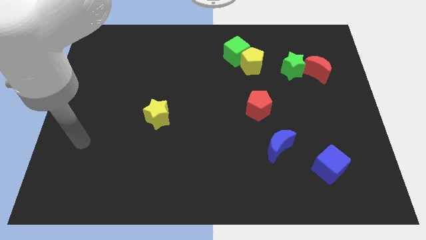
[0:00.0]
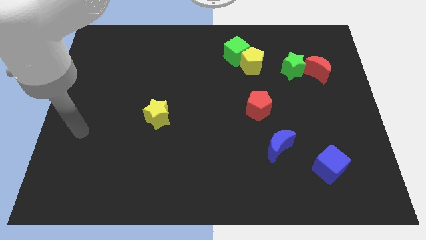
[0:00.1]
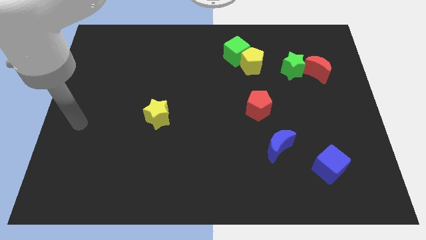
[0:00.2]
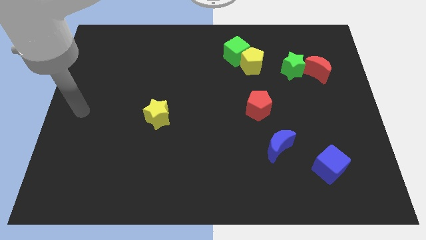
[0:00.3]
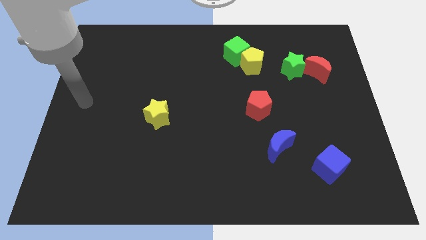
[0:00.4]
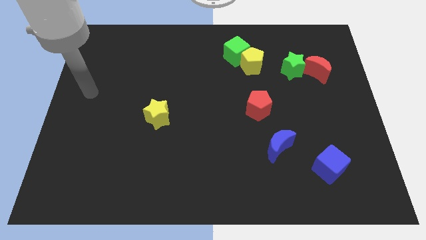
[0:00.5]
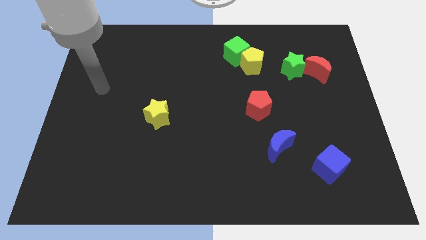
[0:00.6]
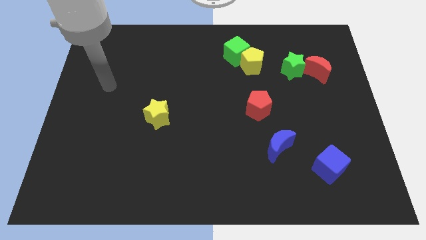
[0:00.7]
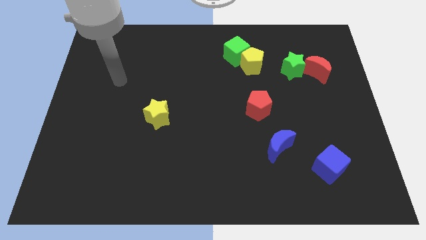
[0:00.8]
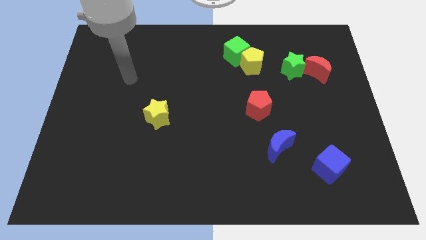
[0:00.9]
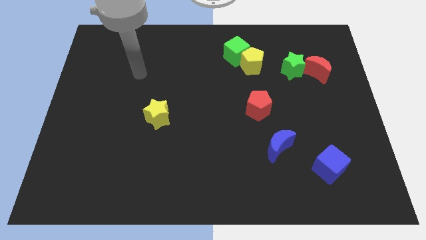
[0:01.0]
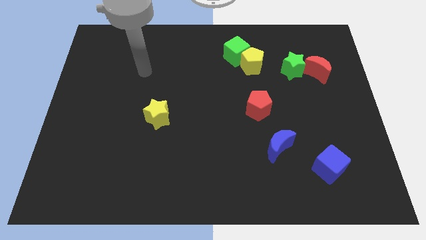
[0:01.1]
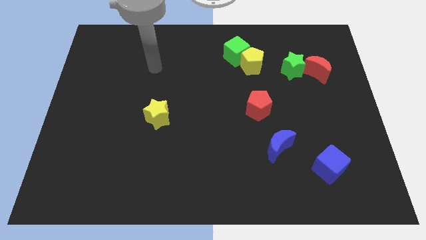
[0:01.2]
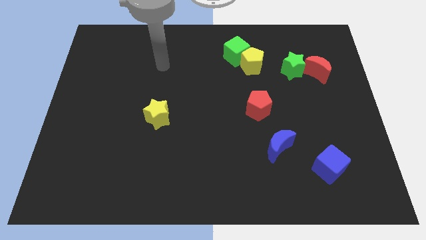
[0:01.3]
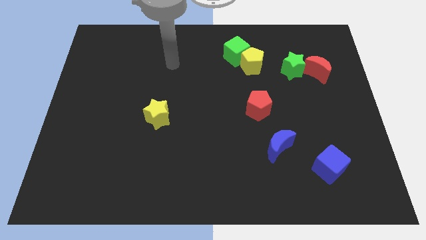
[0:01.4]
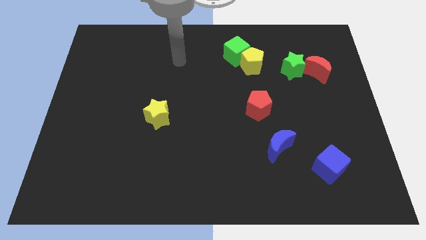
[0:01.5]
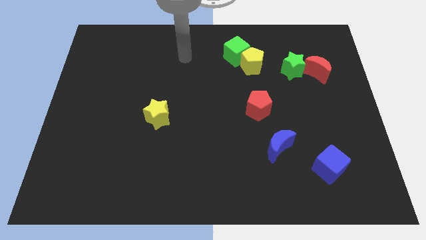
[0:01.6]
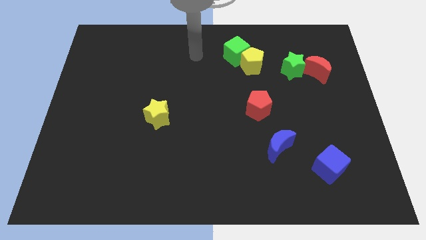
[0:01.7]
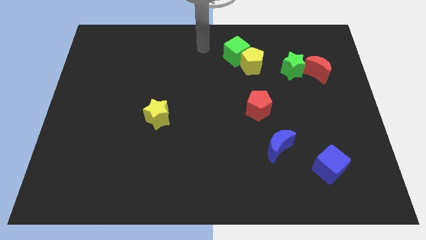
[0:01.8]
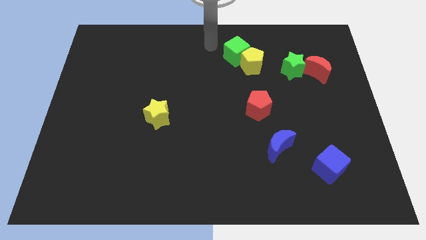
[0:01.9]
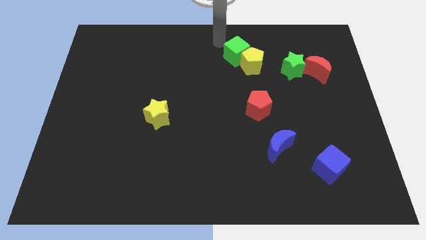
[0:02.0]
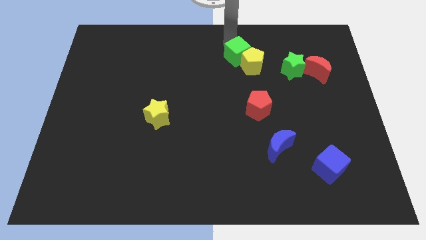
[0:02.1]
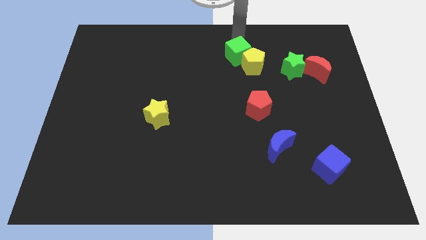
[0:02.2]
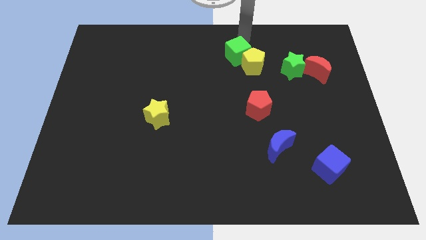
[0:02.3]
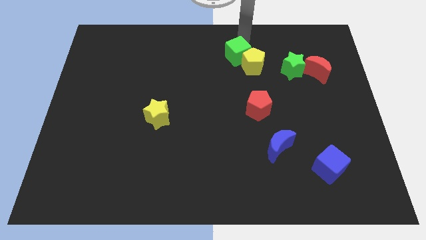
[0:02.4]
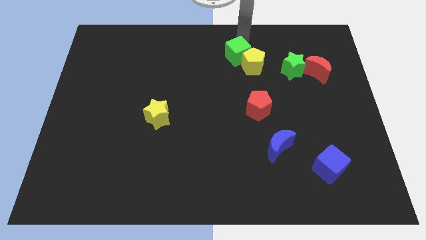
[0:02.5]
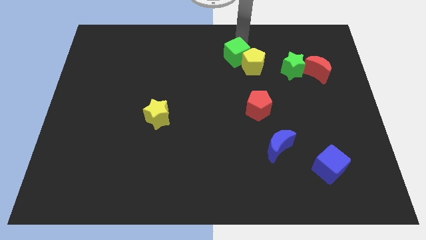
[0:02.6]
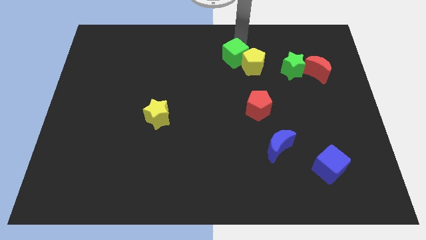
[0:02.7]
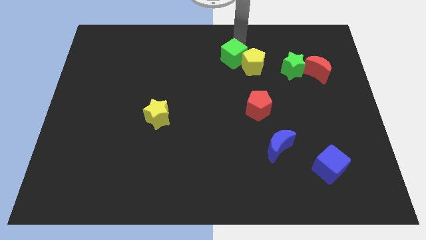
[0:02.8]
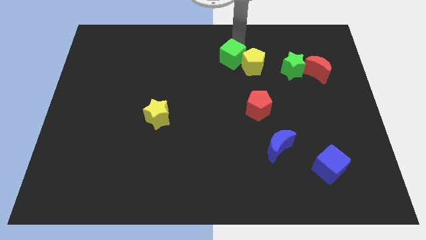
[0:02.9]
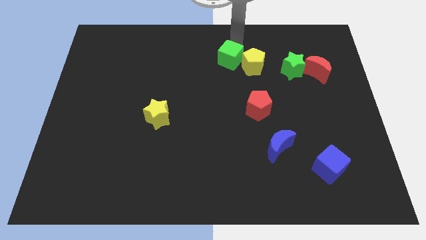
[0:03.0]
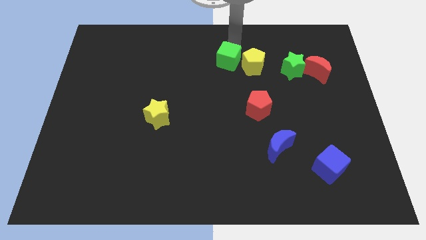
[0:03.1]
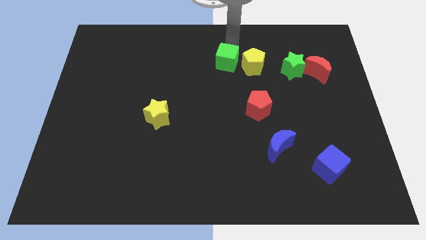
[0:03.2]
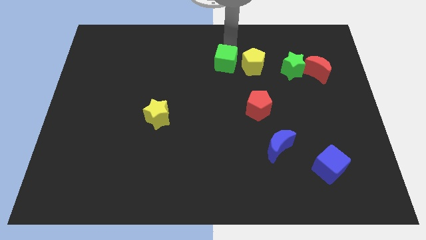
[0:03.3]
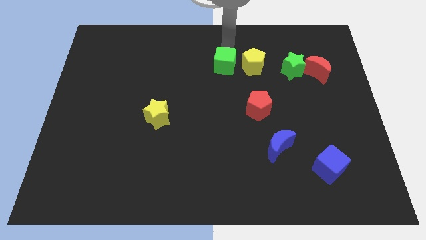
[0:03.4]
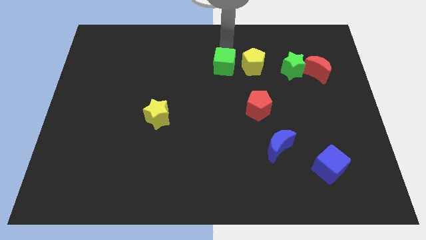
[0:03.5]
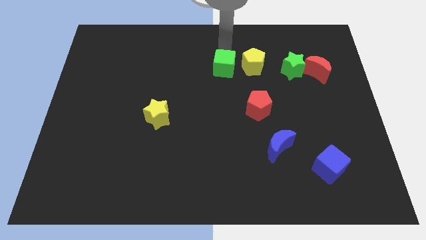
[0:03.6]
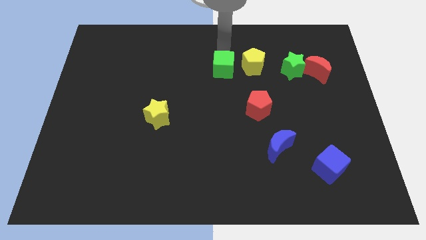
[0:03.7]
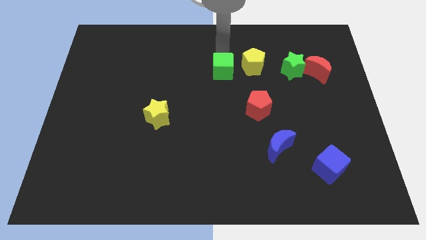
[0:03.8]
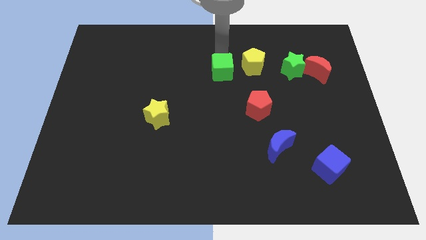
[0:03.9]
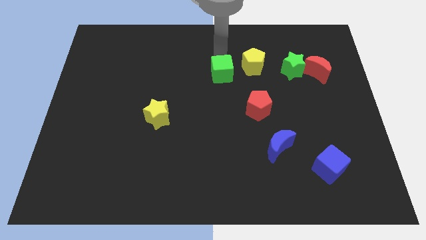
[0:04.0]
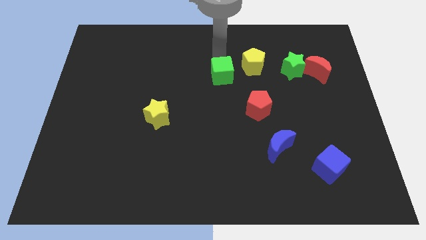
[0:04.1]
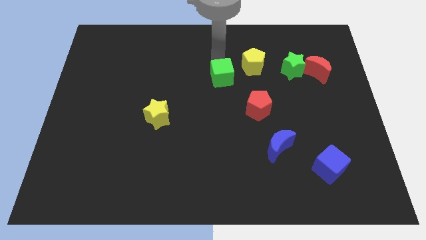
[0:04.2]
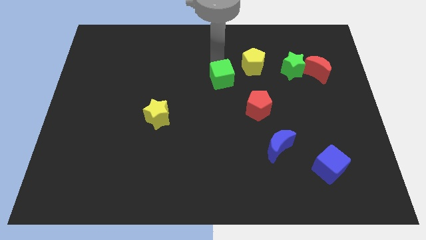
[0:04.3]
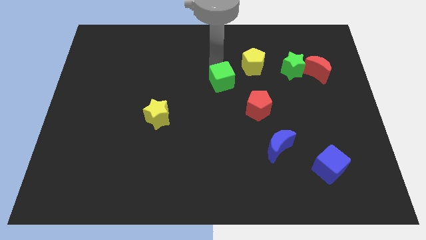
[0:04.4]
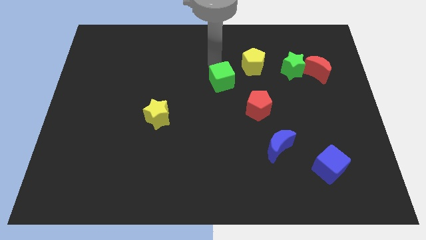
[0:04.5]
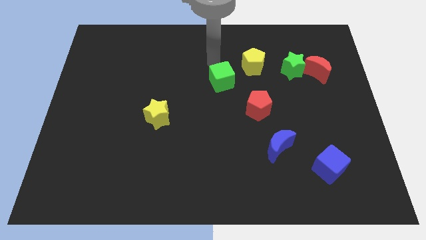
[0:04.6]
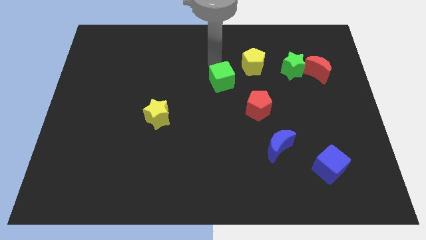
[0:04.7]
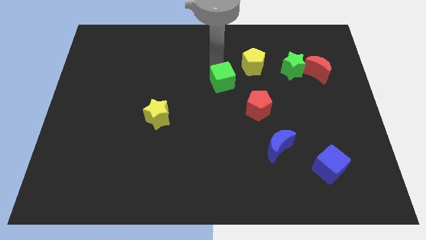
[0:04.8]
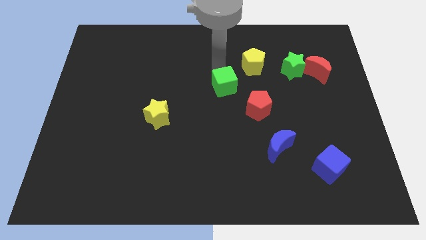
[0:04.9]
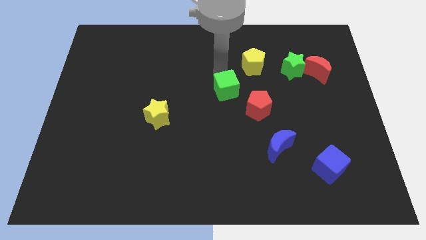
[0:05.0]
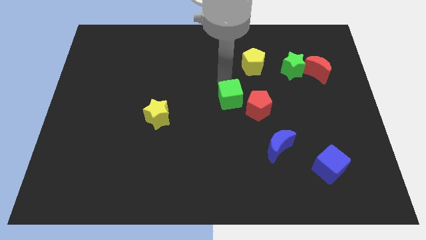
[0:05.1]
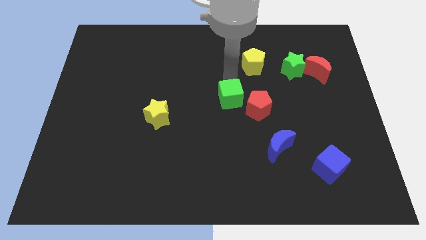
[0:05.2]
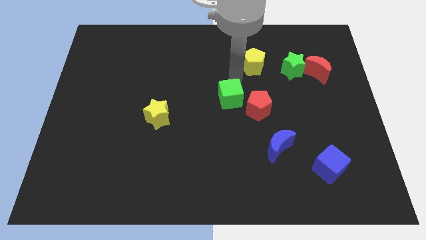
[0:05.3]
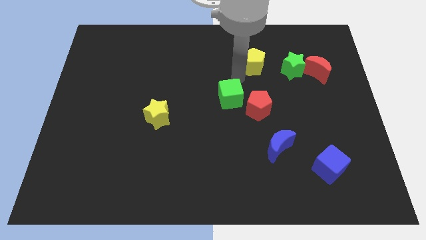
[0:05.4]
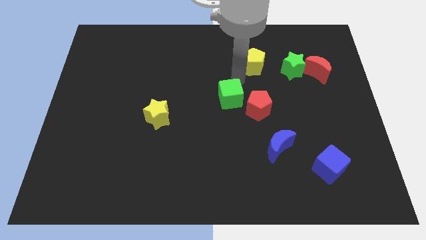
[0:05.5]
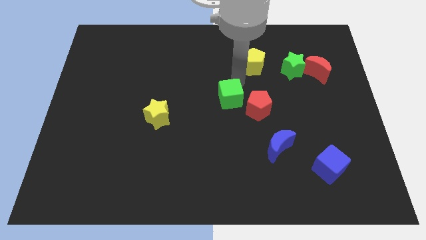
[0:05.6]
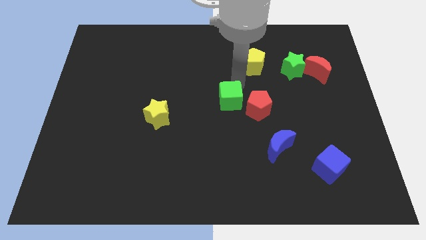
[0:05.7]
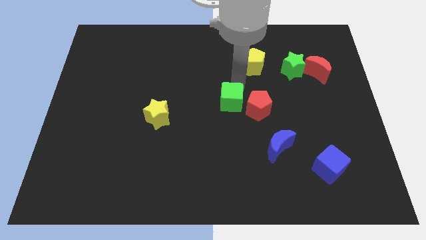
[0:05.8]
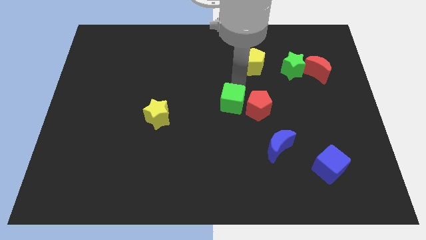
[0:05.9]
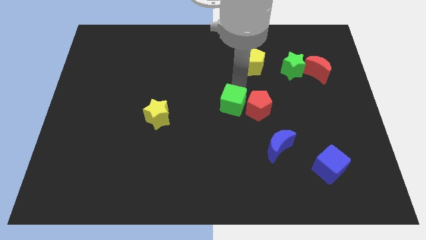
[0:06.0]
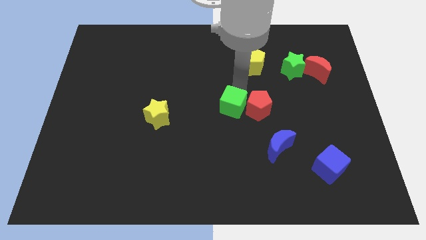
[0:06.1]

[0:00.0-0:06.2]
push the green cube to the bottom left of the red pentagon

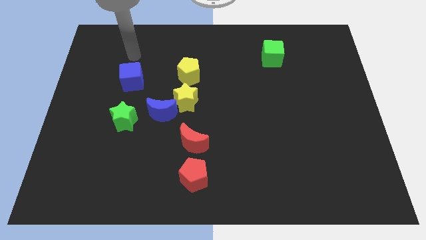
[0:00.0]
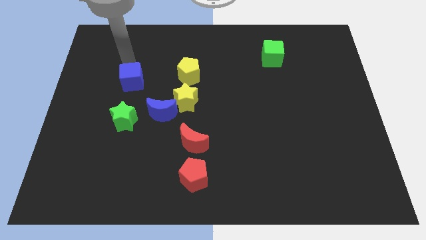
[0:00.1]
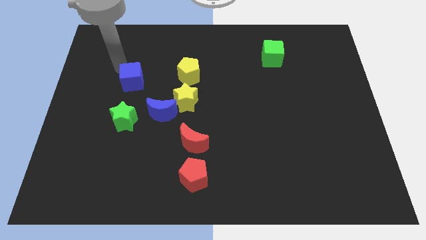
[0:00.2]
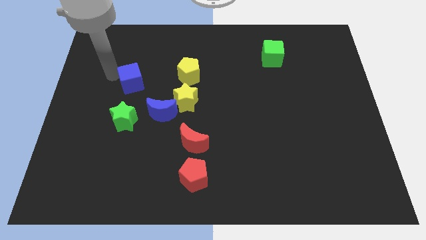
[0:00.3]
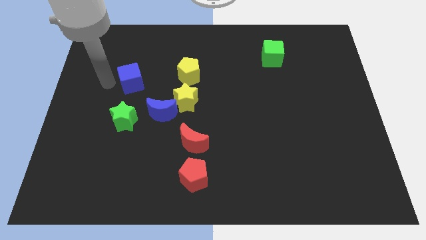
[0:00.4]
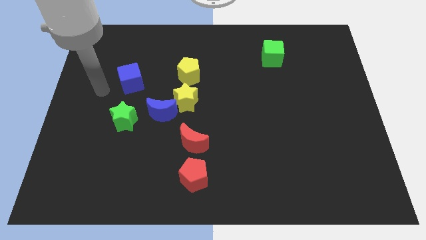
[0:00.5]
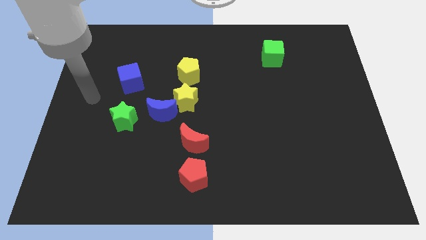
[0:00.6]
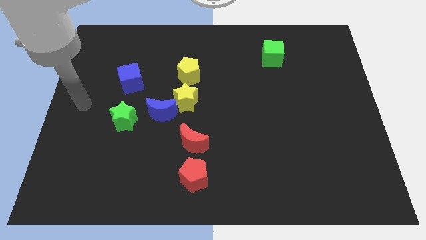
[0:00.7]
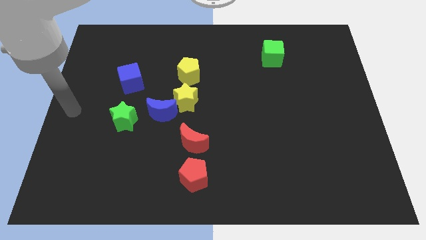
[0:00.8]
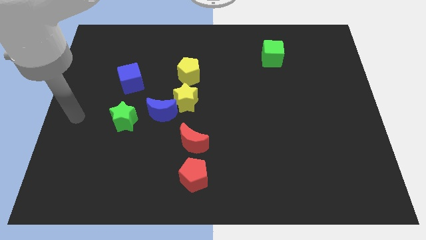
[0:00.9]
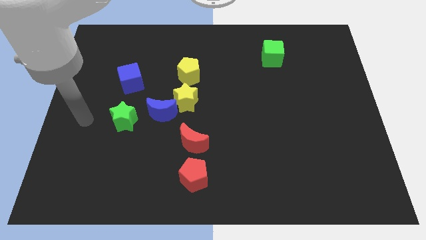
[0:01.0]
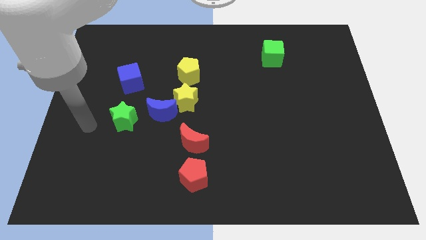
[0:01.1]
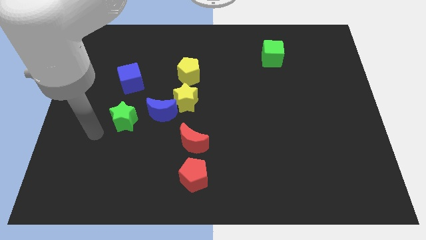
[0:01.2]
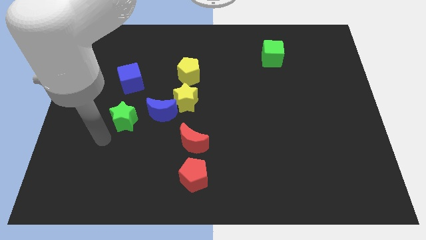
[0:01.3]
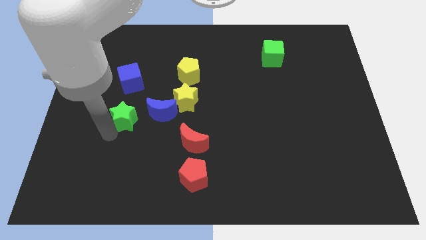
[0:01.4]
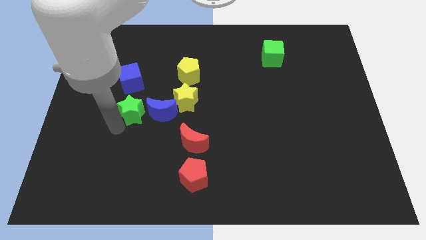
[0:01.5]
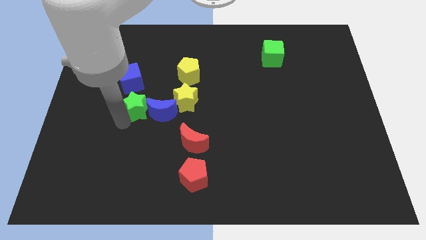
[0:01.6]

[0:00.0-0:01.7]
push the green star to the bottom right side of the blue cube
